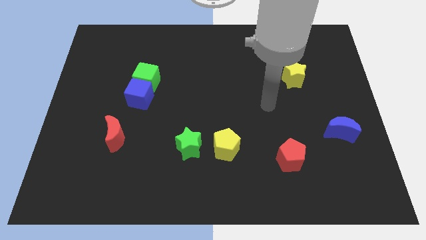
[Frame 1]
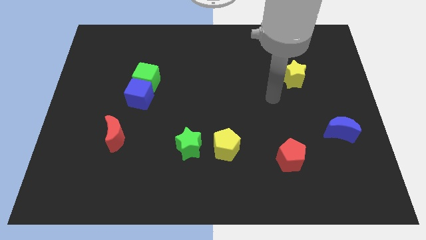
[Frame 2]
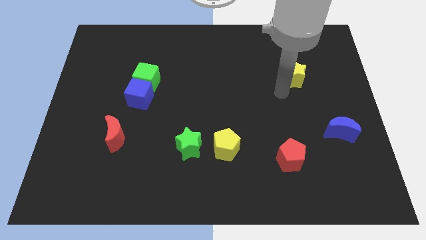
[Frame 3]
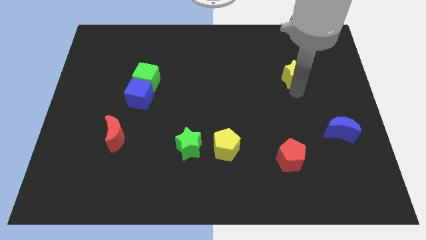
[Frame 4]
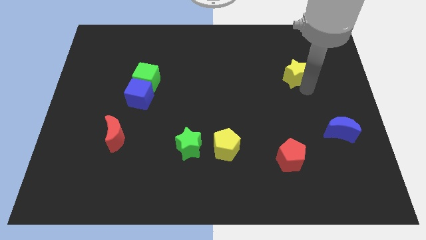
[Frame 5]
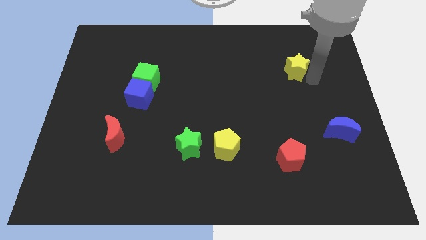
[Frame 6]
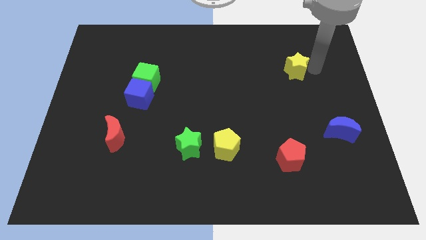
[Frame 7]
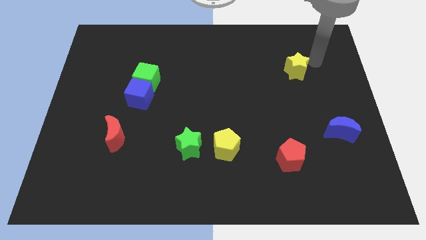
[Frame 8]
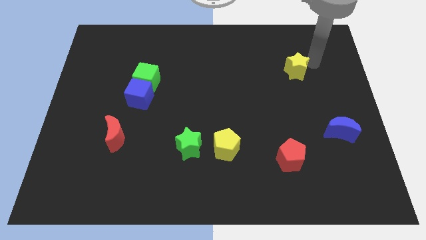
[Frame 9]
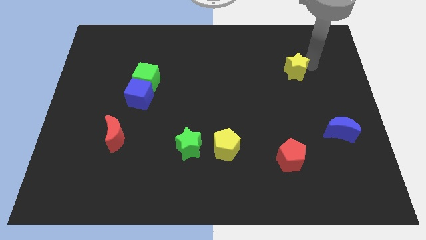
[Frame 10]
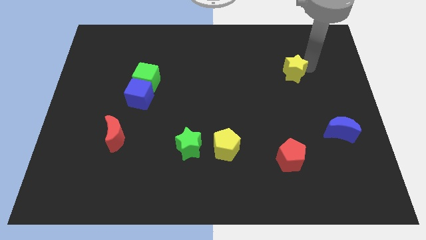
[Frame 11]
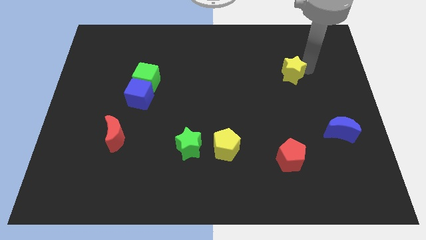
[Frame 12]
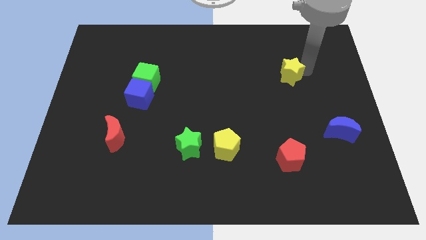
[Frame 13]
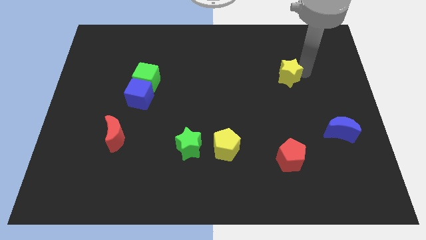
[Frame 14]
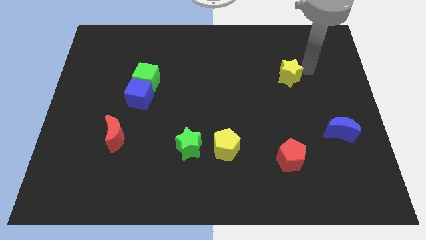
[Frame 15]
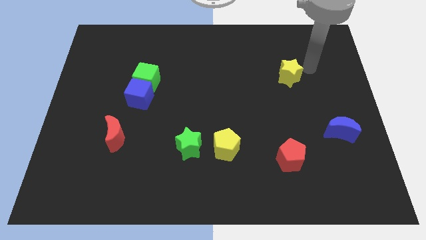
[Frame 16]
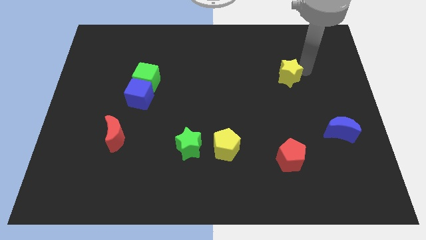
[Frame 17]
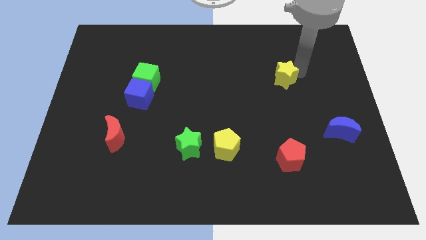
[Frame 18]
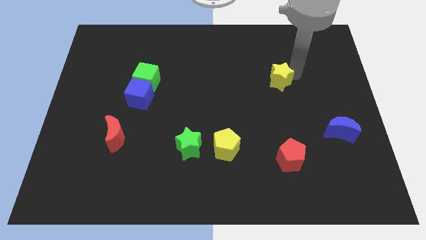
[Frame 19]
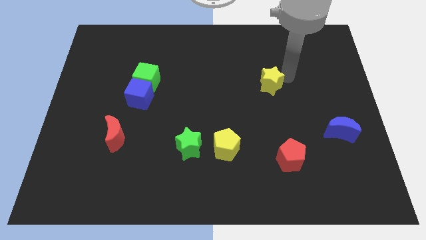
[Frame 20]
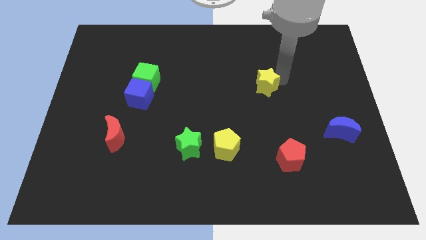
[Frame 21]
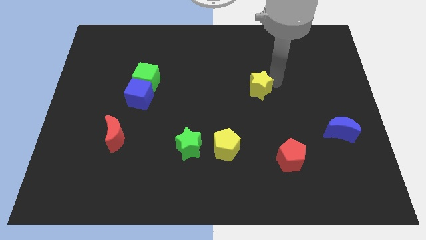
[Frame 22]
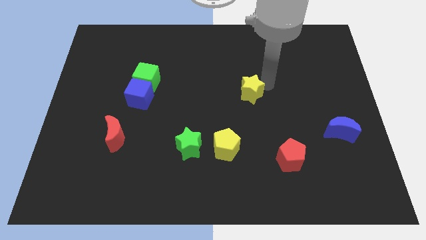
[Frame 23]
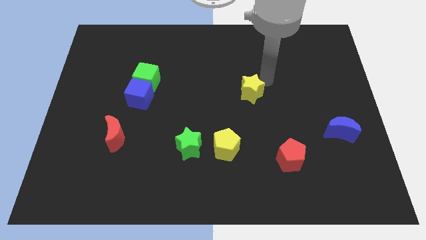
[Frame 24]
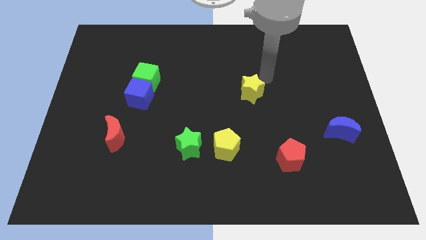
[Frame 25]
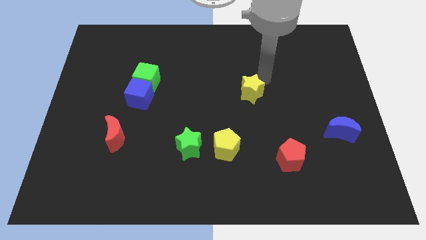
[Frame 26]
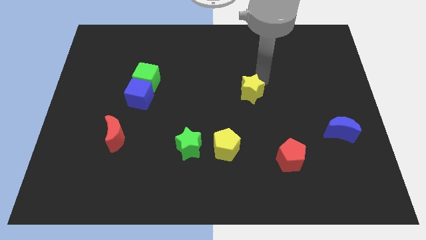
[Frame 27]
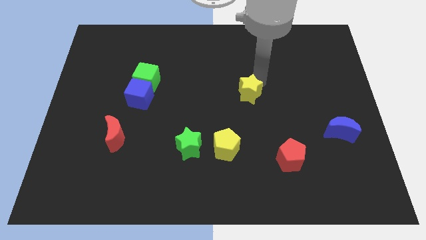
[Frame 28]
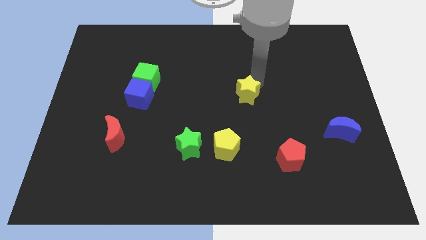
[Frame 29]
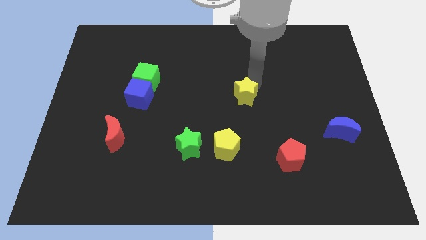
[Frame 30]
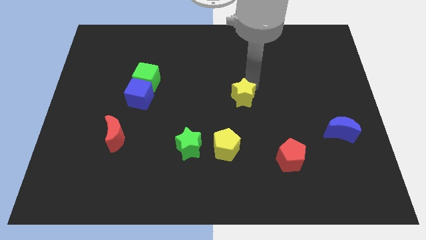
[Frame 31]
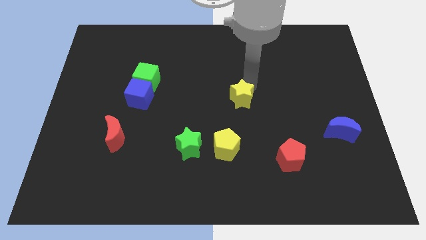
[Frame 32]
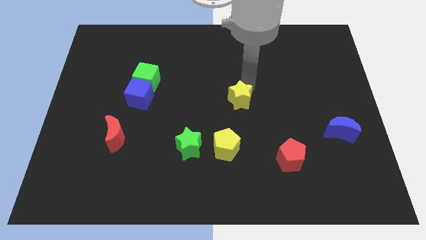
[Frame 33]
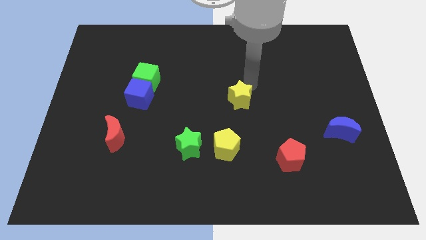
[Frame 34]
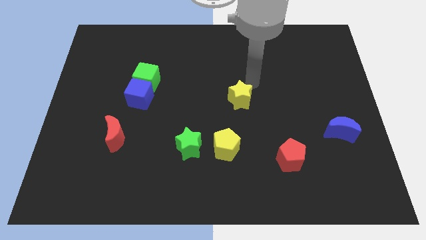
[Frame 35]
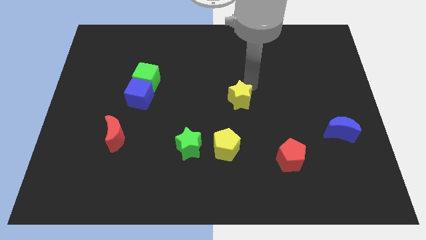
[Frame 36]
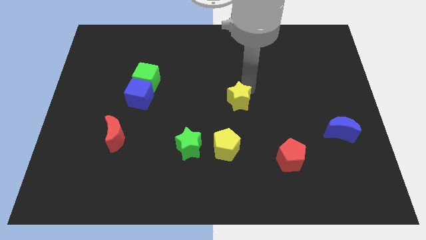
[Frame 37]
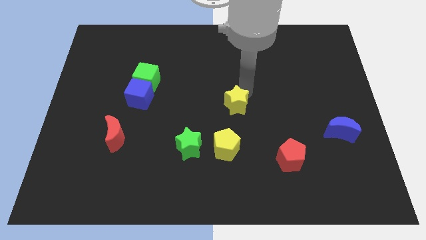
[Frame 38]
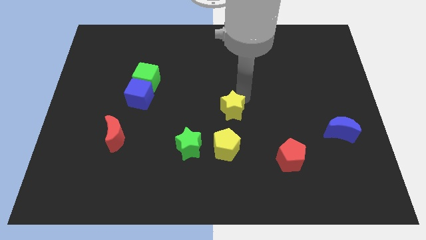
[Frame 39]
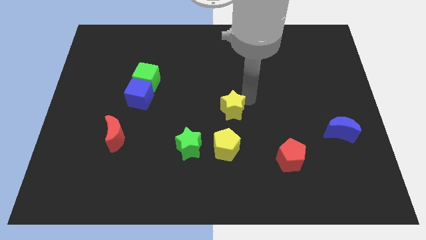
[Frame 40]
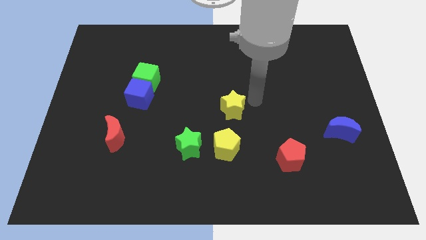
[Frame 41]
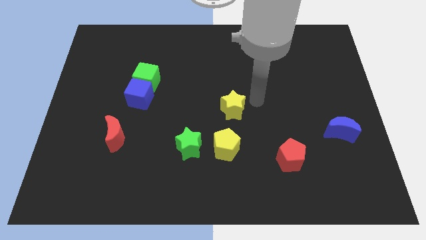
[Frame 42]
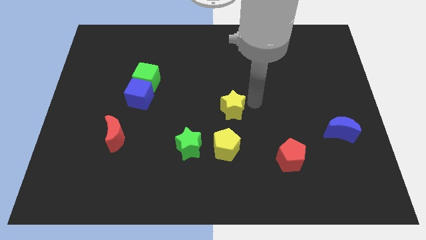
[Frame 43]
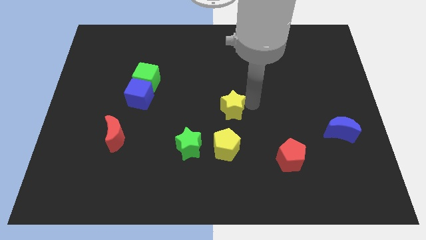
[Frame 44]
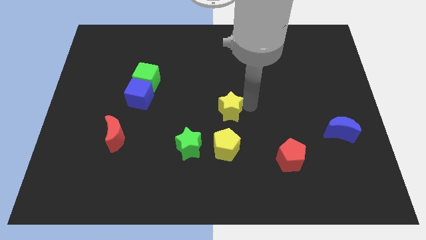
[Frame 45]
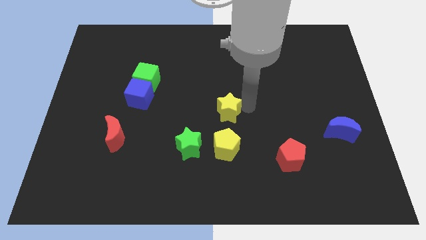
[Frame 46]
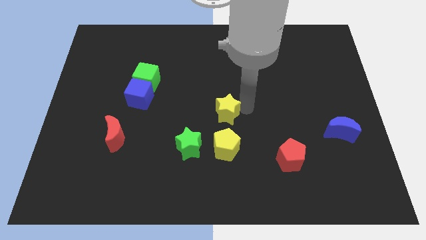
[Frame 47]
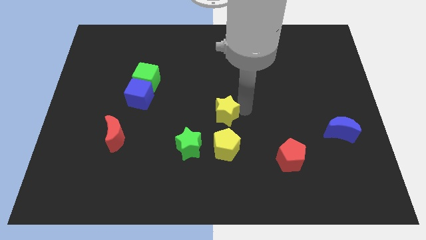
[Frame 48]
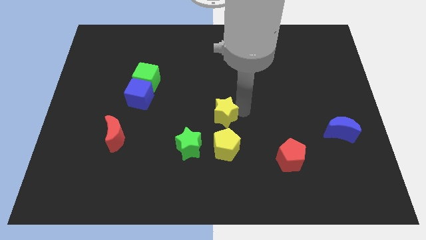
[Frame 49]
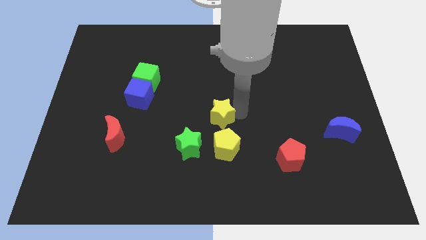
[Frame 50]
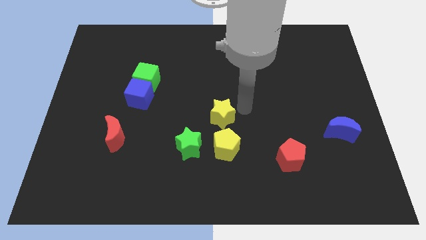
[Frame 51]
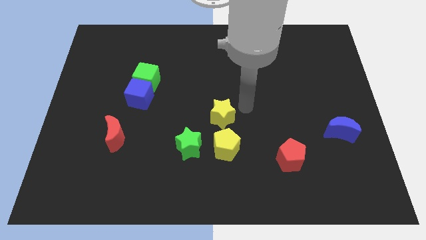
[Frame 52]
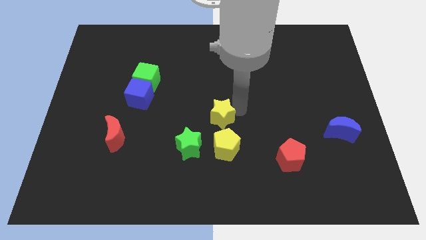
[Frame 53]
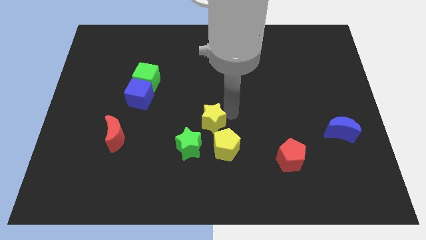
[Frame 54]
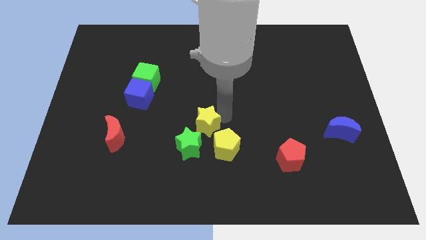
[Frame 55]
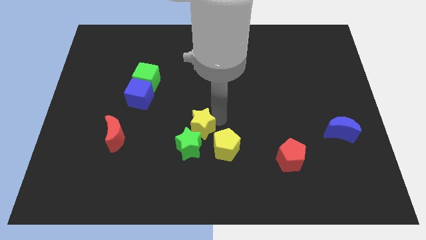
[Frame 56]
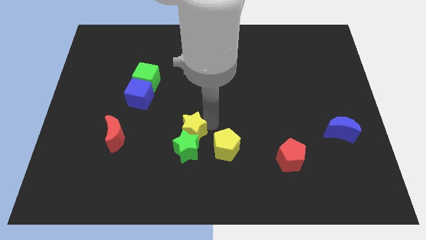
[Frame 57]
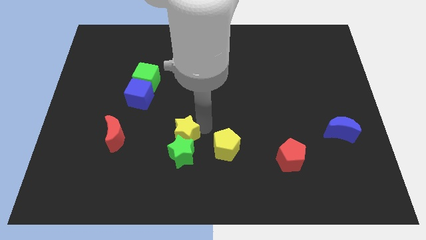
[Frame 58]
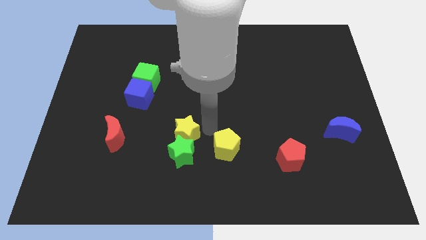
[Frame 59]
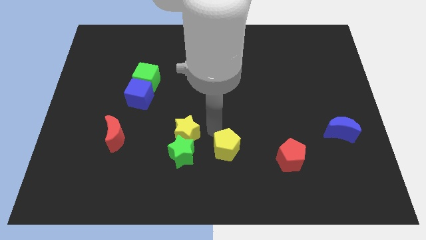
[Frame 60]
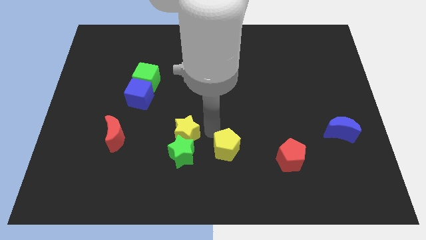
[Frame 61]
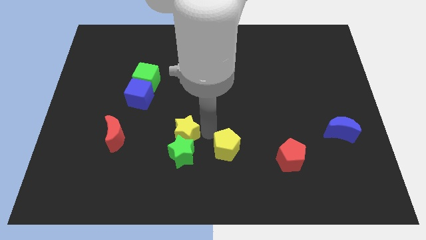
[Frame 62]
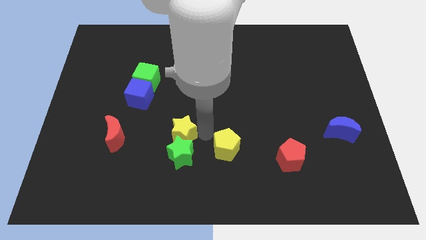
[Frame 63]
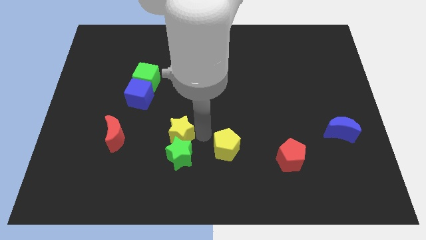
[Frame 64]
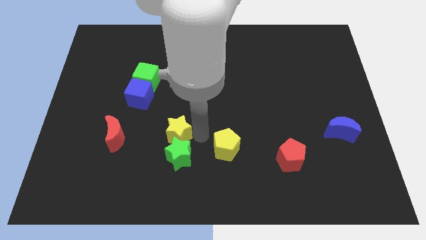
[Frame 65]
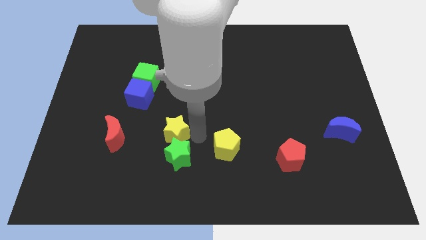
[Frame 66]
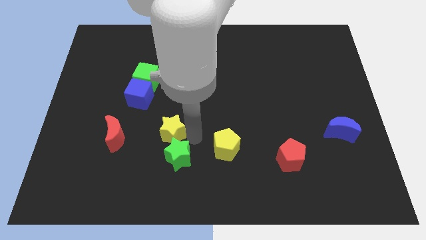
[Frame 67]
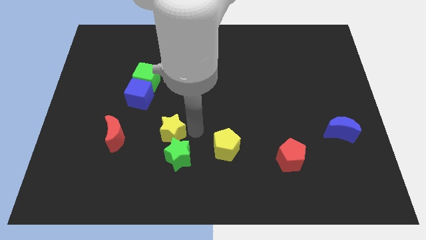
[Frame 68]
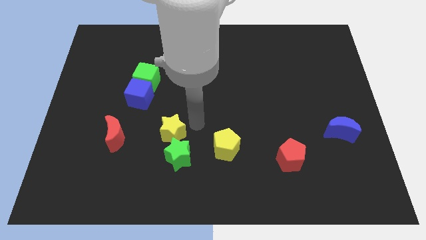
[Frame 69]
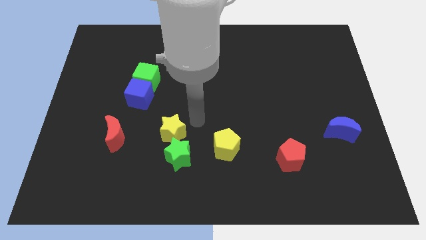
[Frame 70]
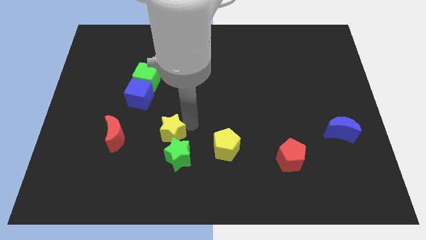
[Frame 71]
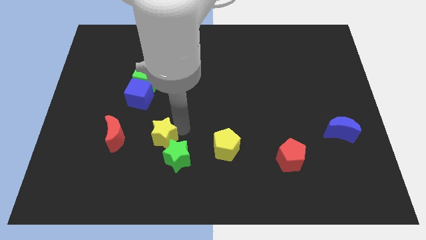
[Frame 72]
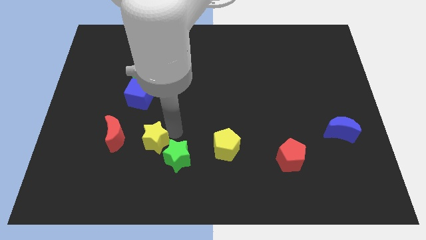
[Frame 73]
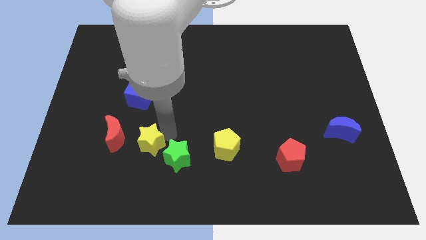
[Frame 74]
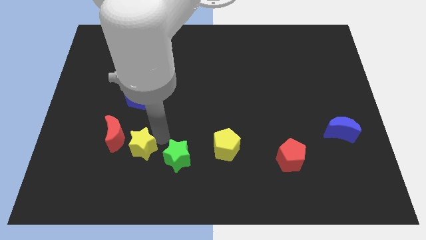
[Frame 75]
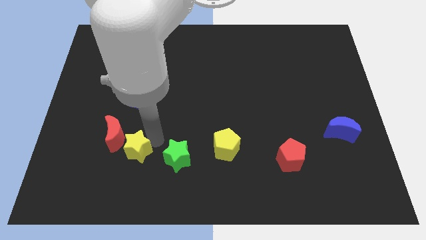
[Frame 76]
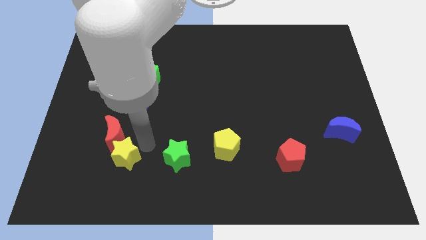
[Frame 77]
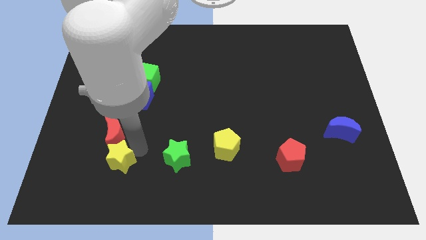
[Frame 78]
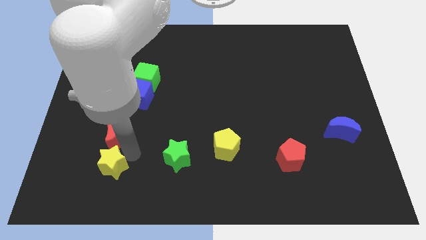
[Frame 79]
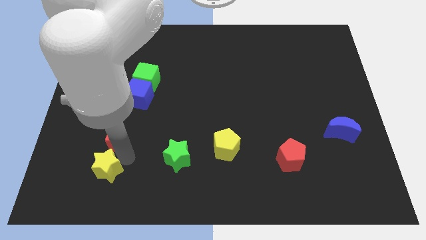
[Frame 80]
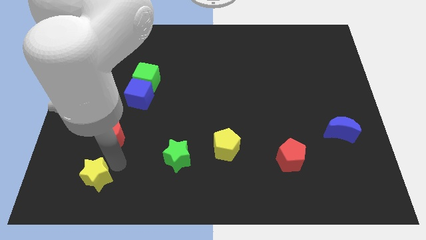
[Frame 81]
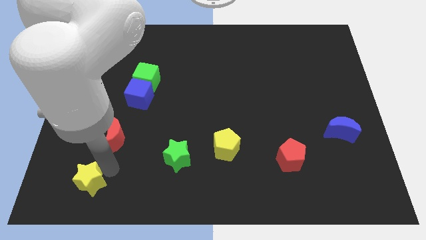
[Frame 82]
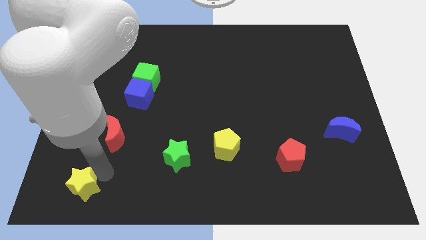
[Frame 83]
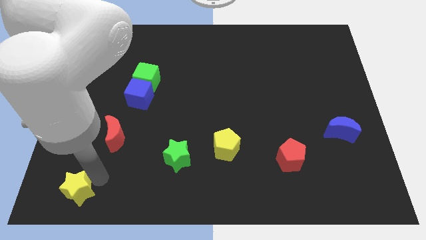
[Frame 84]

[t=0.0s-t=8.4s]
put the yellow star to the bottom left
